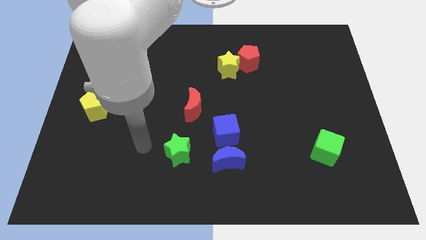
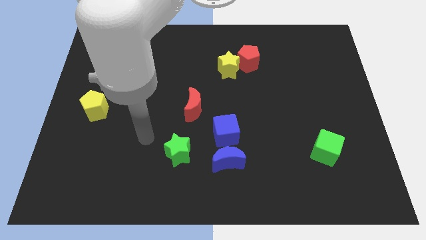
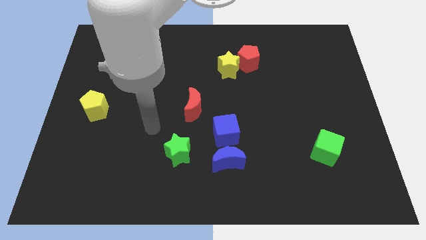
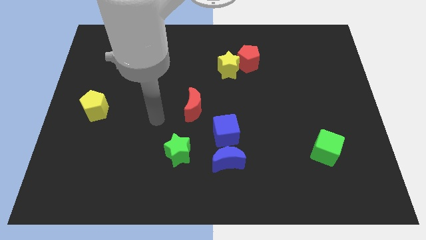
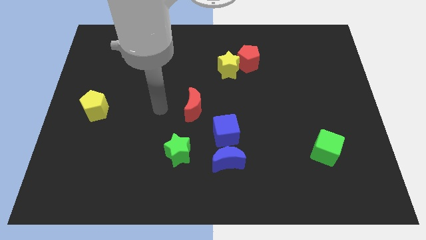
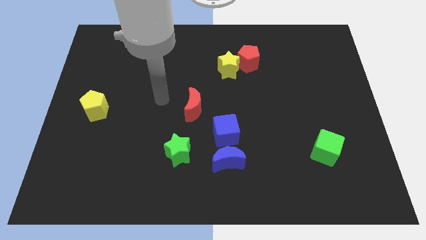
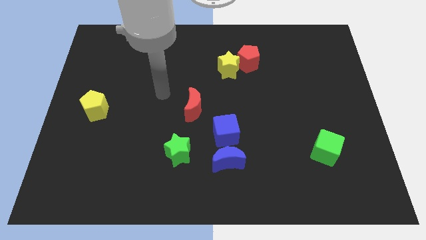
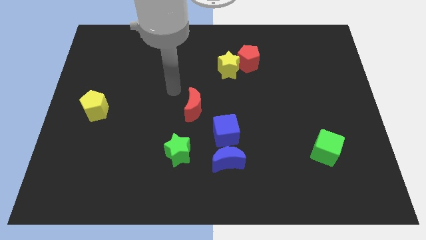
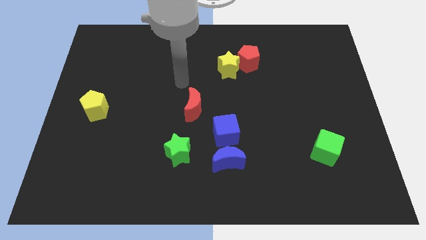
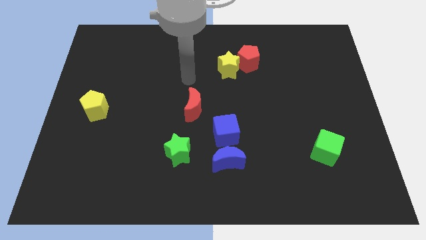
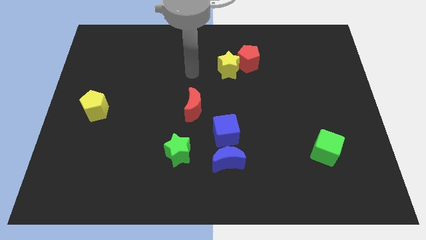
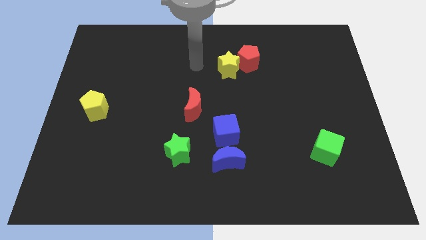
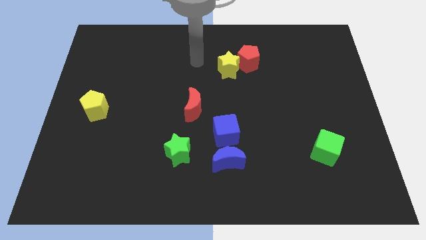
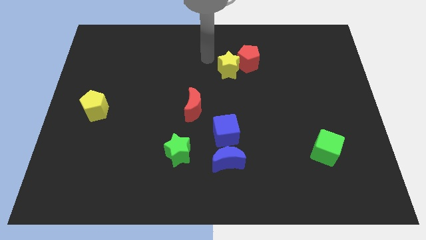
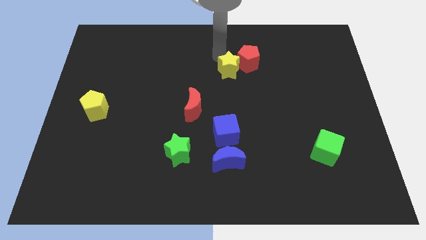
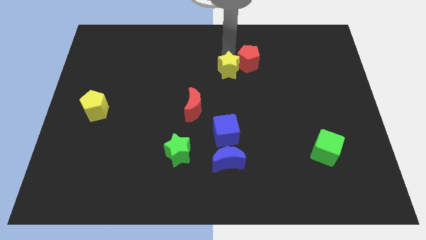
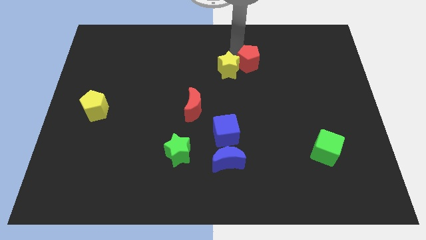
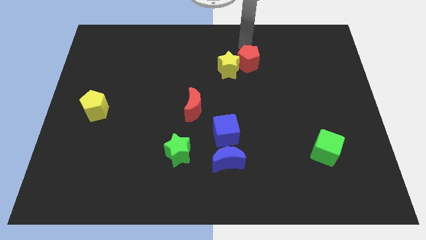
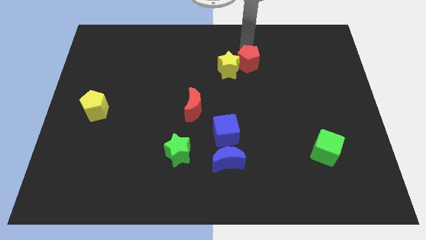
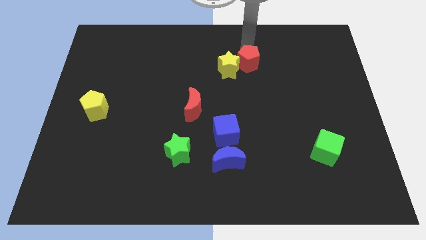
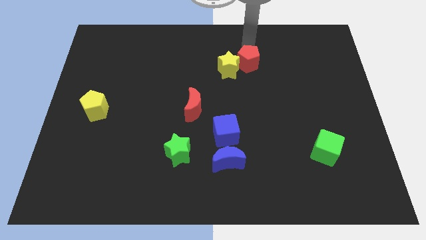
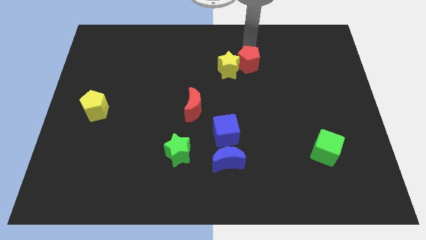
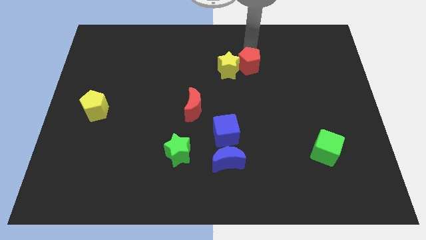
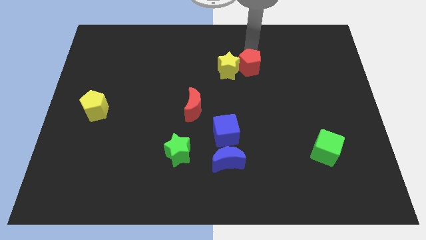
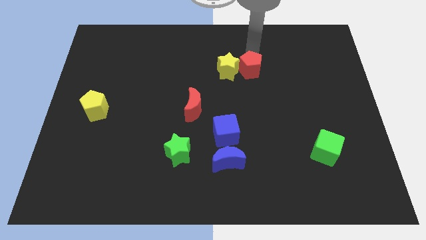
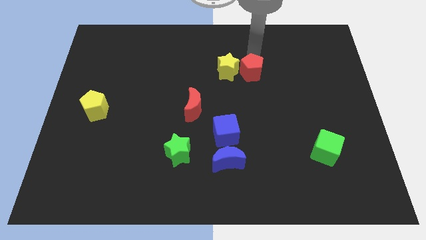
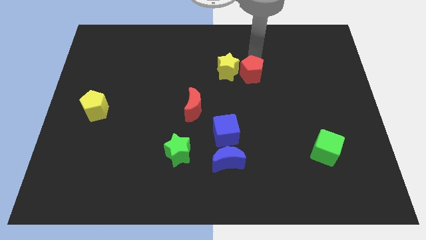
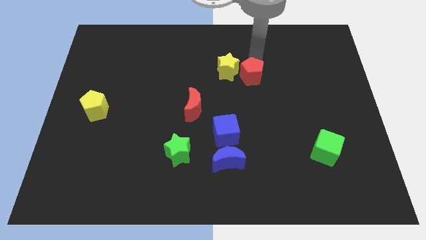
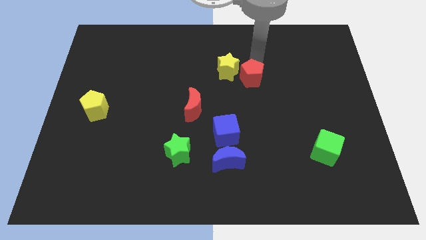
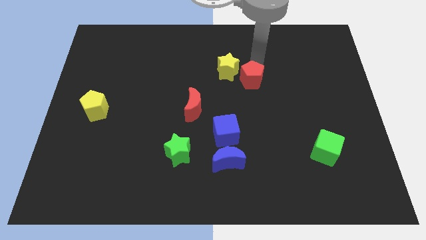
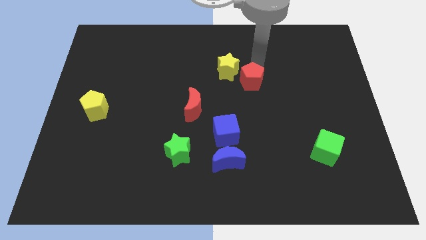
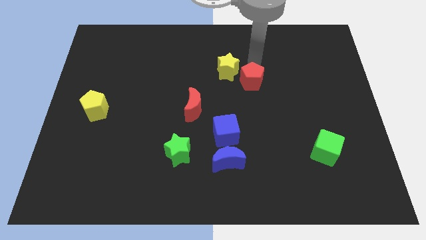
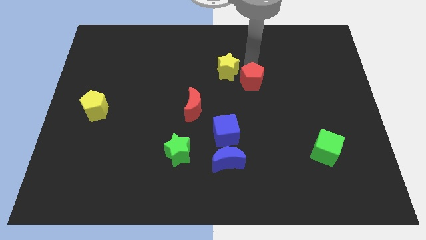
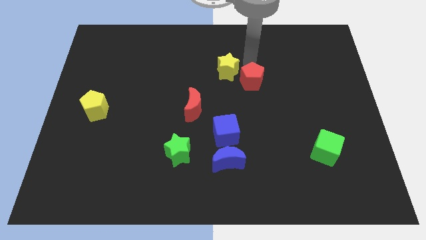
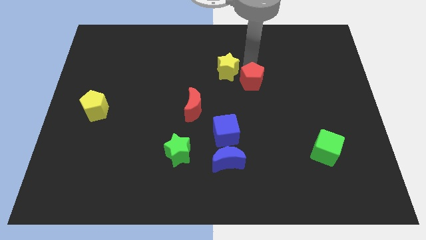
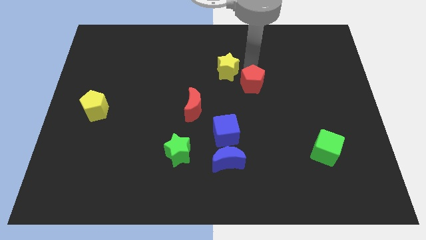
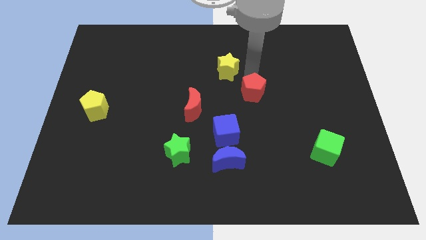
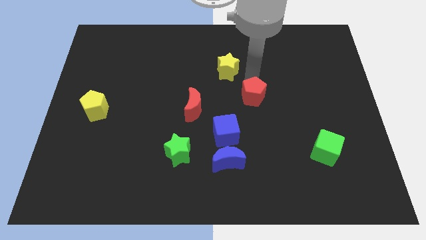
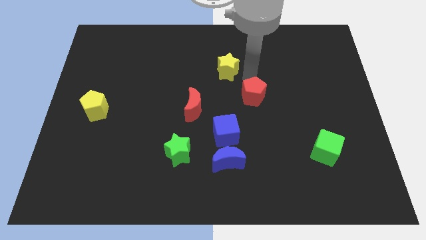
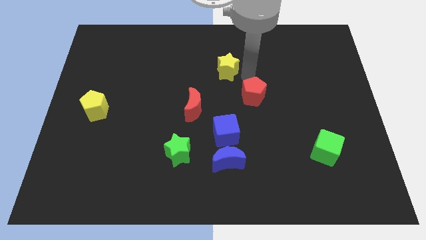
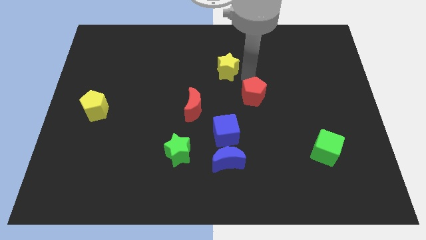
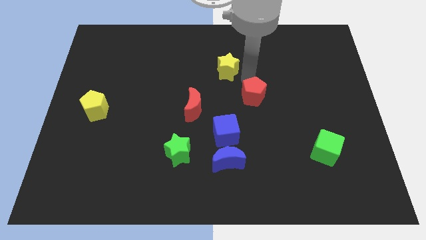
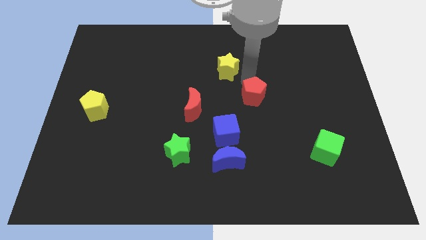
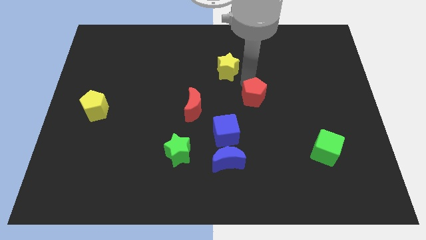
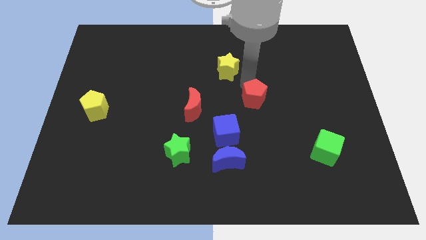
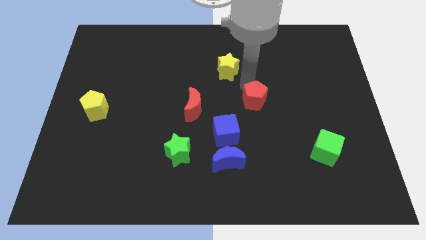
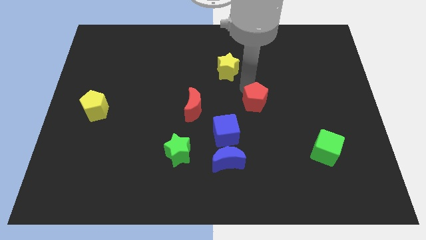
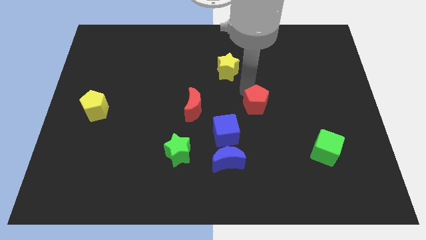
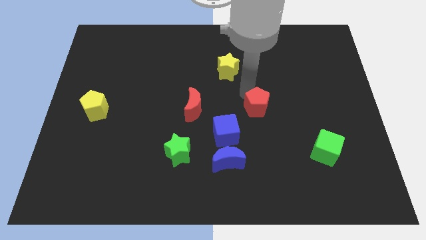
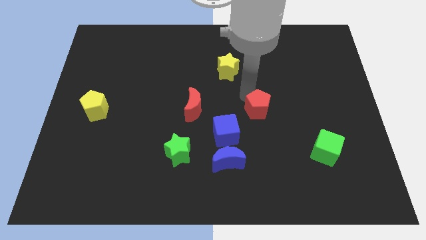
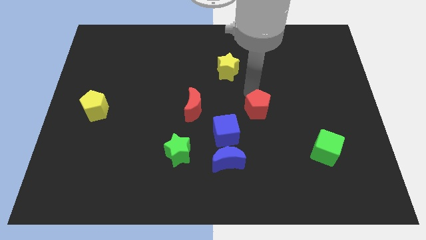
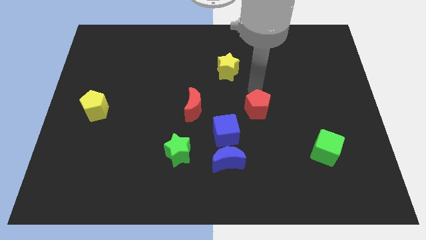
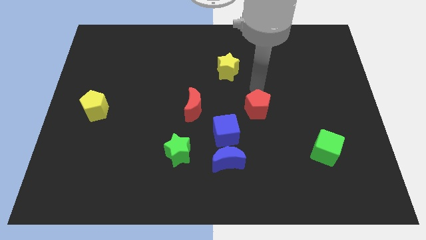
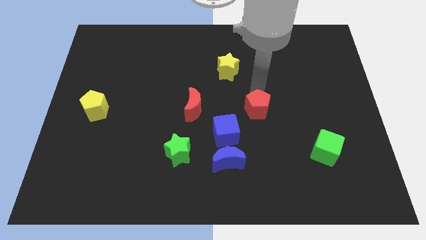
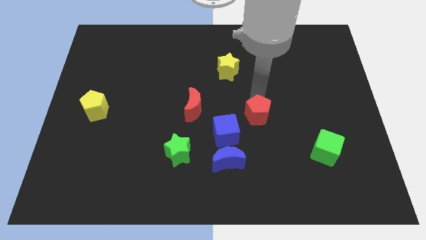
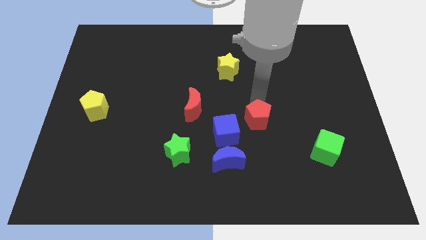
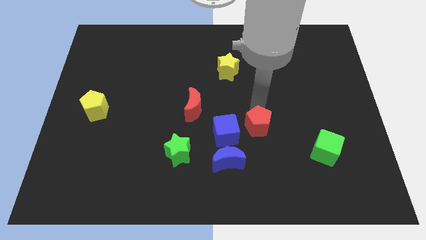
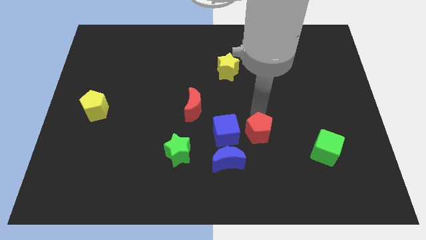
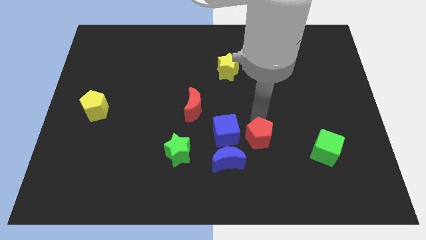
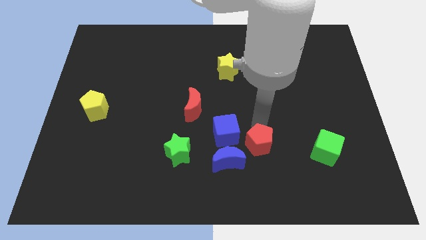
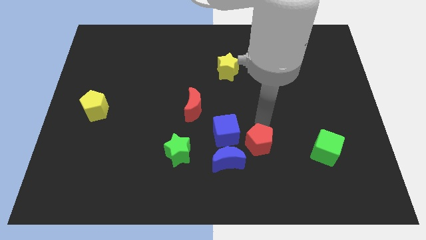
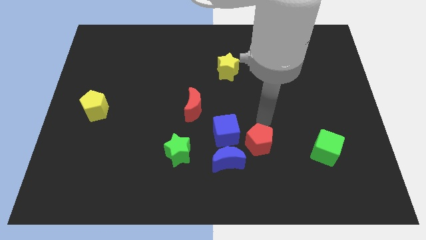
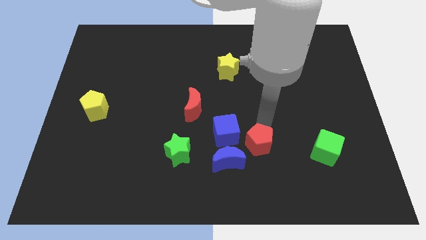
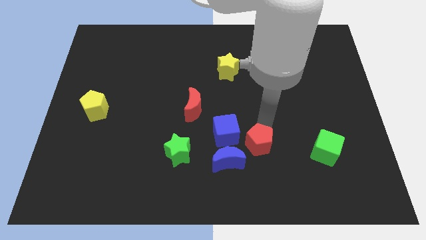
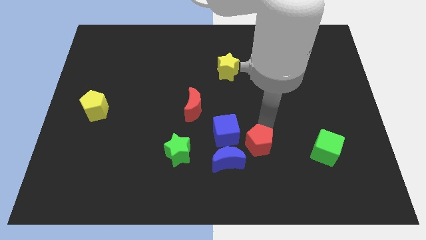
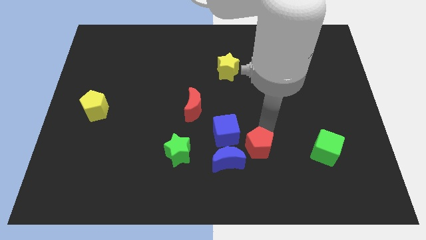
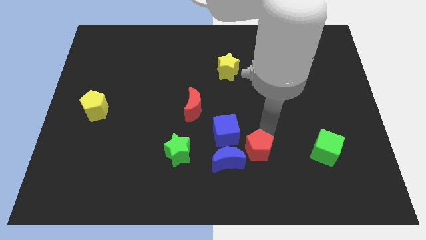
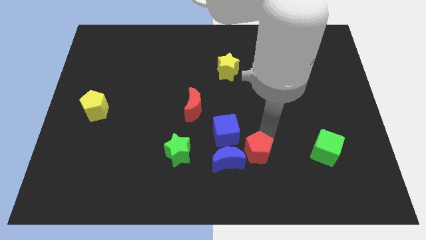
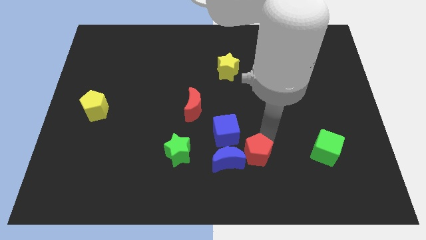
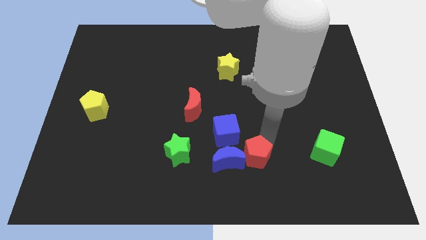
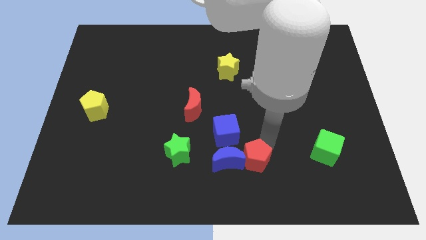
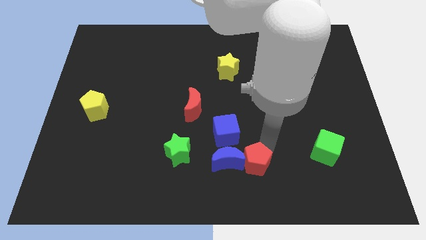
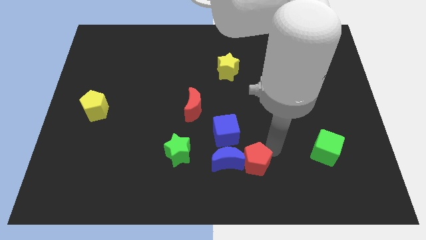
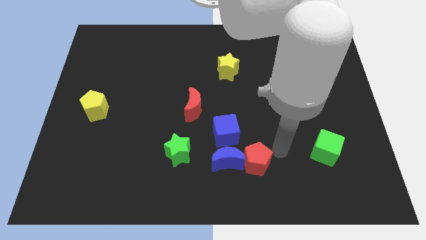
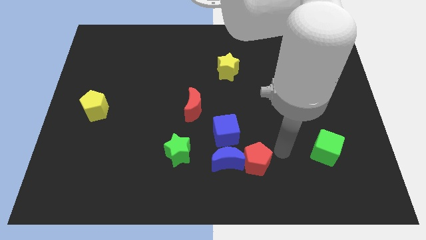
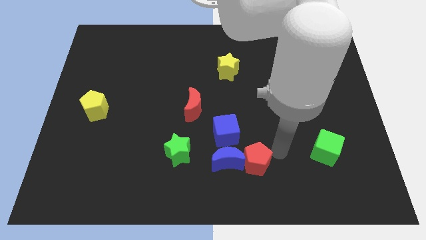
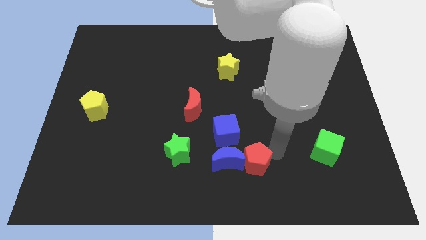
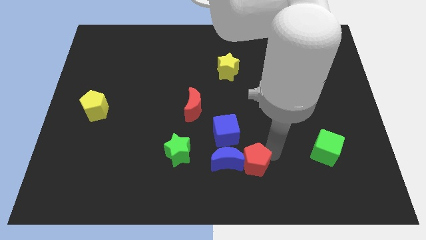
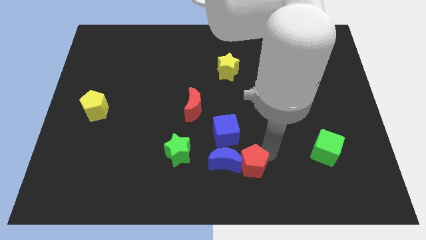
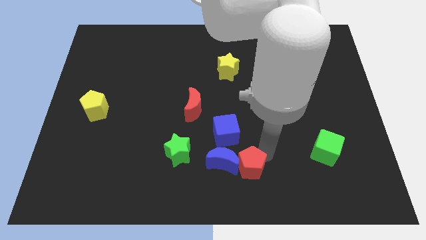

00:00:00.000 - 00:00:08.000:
move the red pentagon to the bottom of the blue cube
